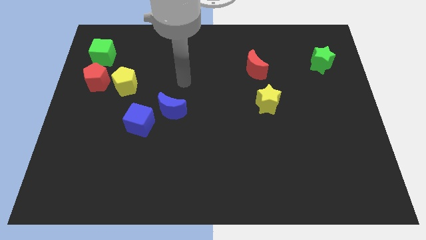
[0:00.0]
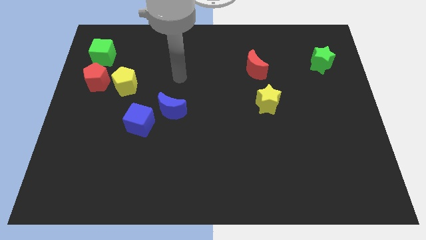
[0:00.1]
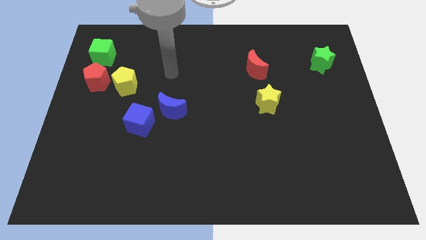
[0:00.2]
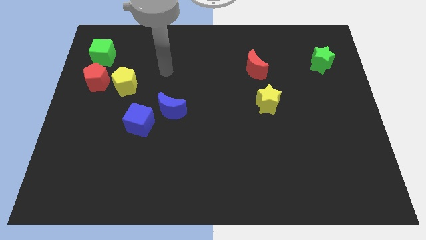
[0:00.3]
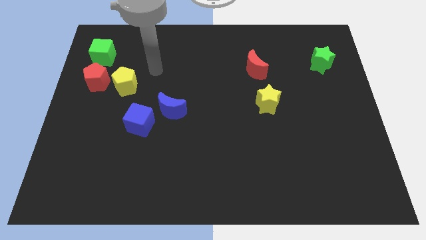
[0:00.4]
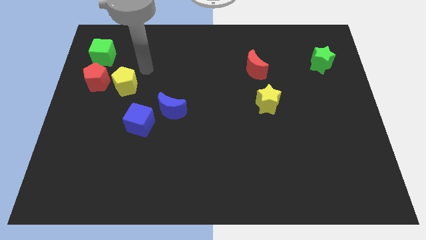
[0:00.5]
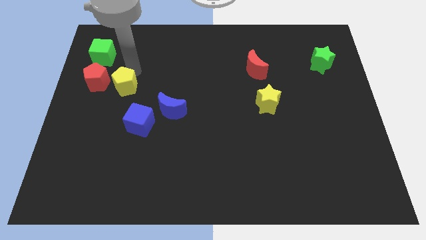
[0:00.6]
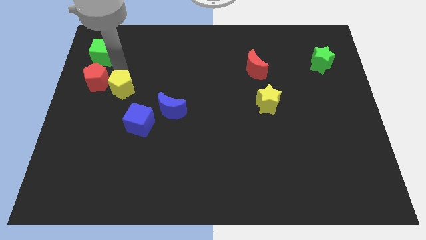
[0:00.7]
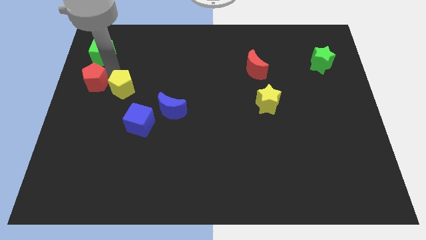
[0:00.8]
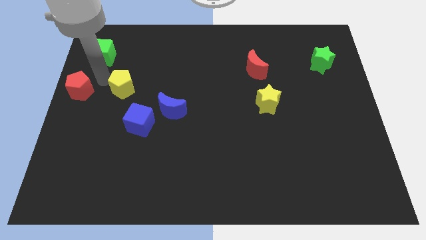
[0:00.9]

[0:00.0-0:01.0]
pull the yellow pentagon apart from the red pentagon

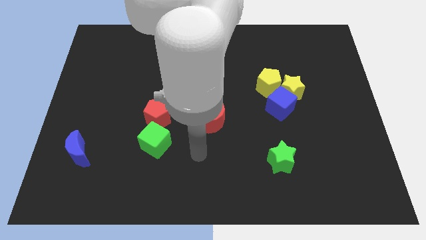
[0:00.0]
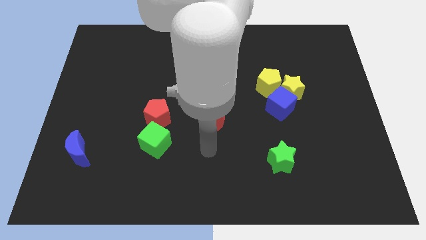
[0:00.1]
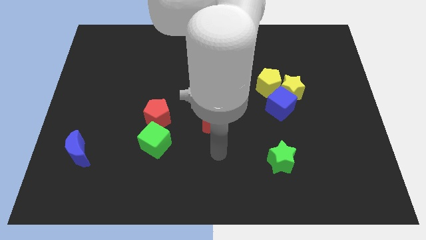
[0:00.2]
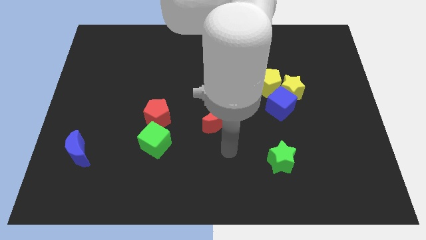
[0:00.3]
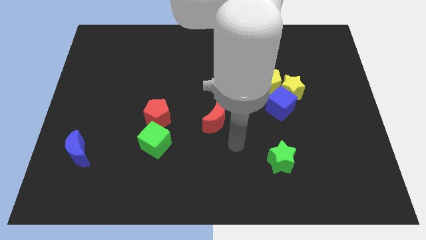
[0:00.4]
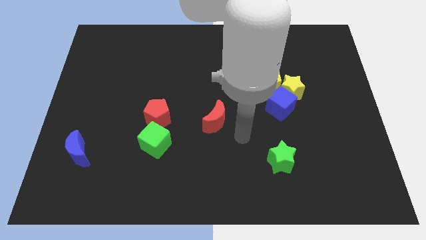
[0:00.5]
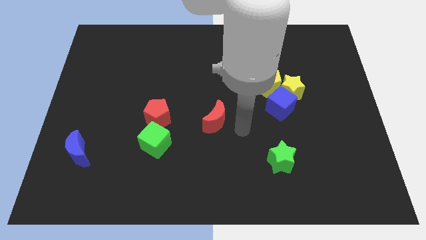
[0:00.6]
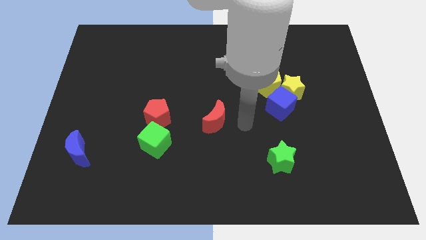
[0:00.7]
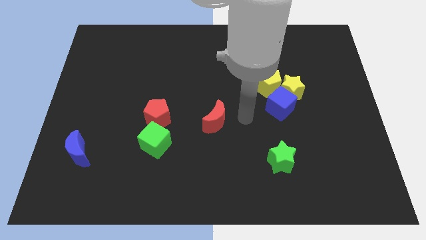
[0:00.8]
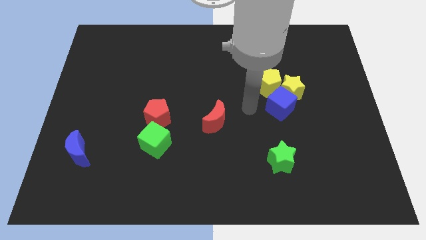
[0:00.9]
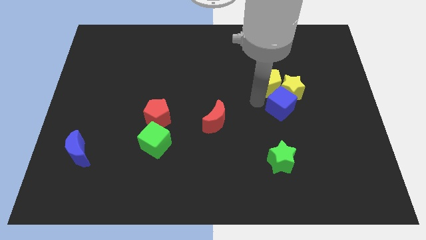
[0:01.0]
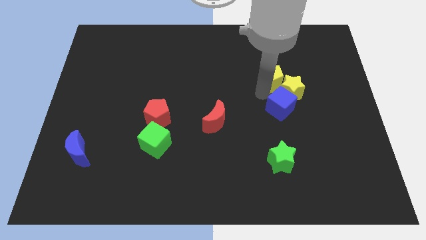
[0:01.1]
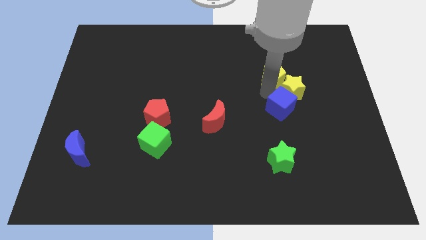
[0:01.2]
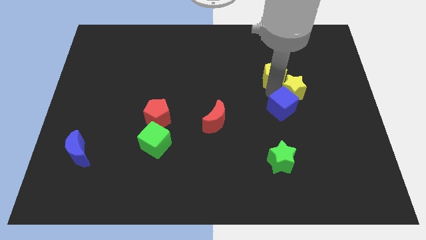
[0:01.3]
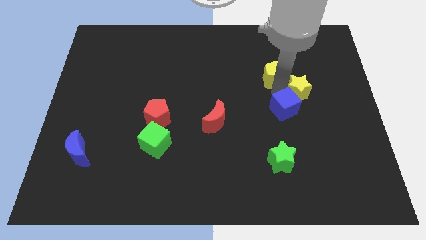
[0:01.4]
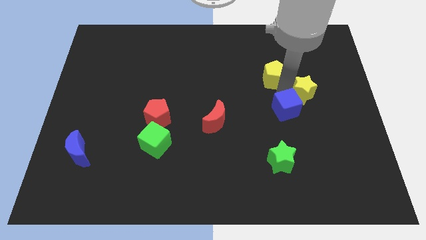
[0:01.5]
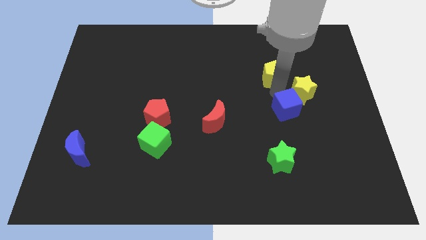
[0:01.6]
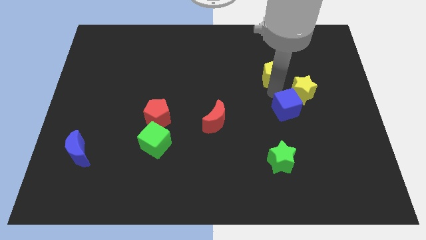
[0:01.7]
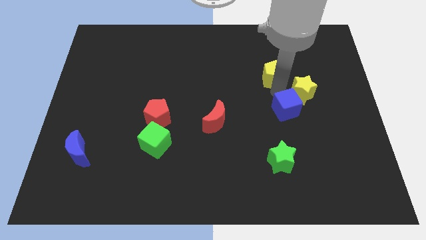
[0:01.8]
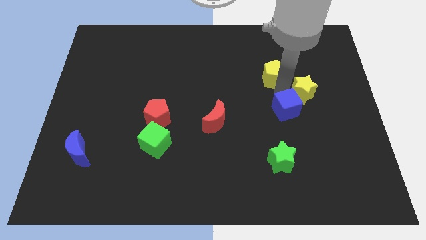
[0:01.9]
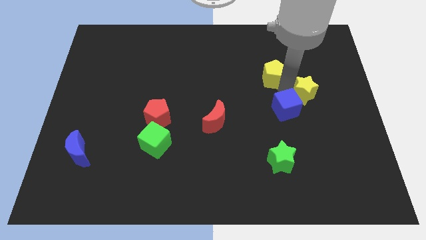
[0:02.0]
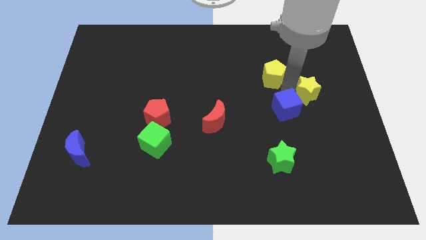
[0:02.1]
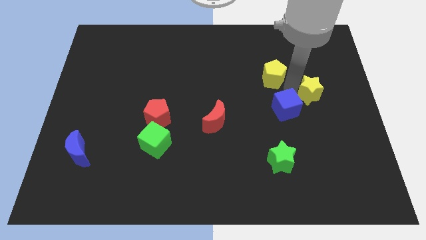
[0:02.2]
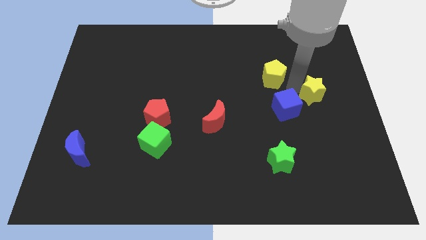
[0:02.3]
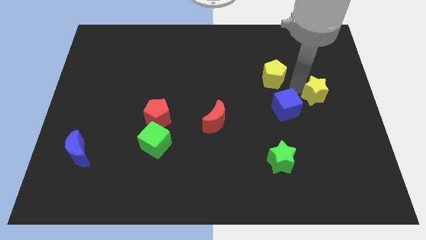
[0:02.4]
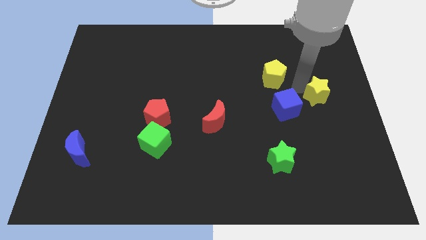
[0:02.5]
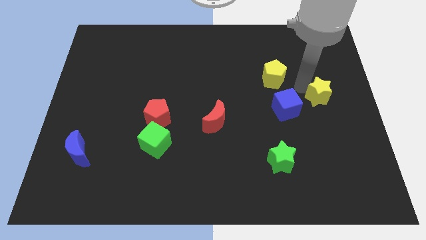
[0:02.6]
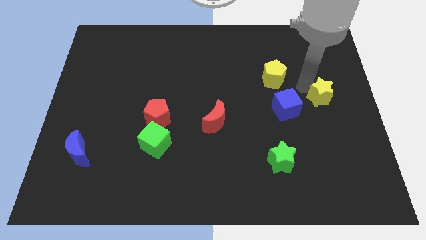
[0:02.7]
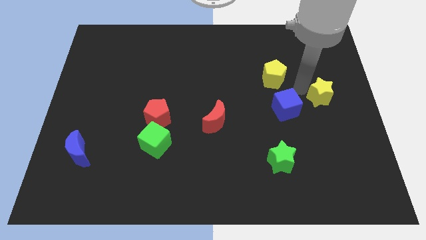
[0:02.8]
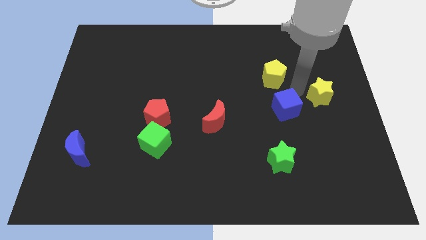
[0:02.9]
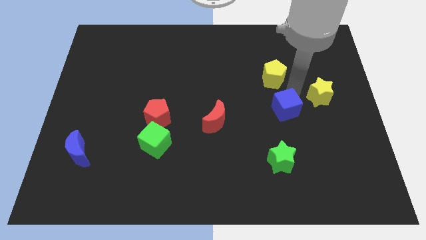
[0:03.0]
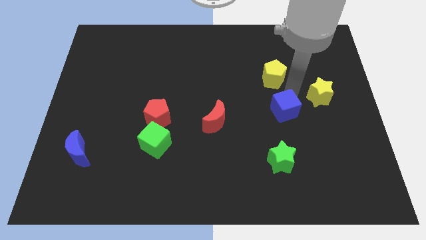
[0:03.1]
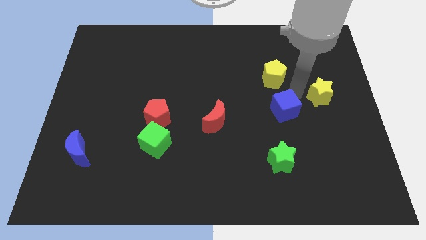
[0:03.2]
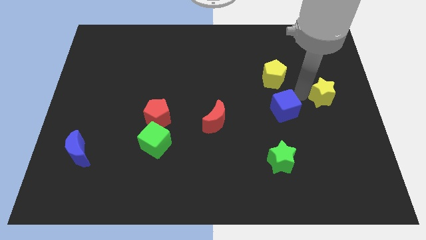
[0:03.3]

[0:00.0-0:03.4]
move the yellow star away from the blue cube and yellow pentagon

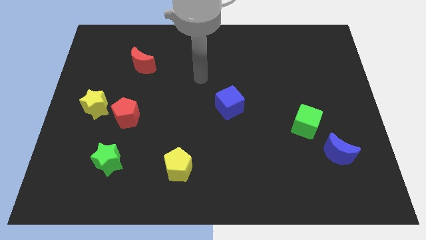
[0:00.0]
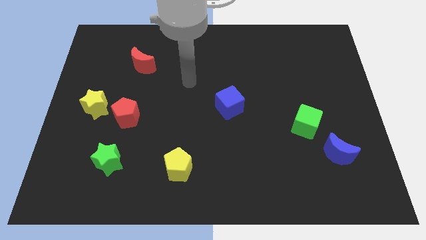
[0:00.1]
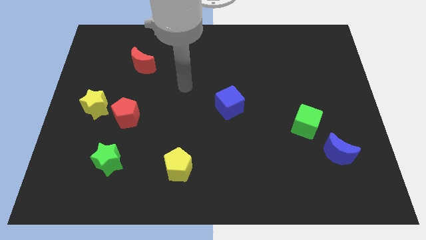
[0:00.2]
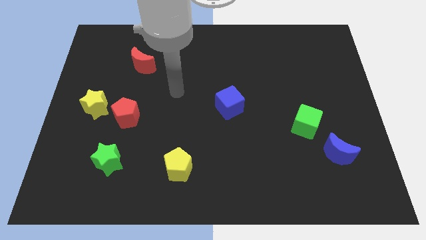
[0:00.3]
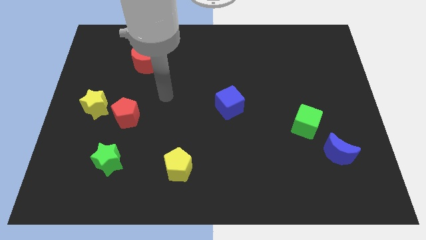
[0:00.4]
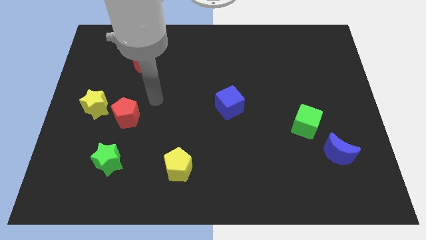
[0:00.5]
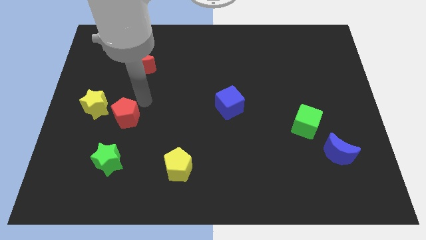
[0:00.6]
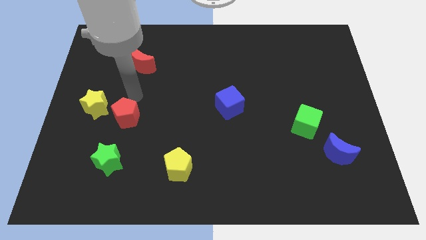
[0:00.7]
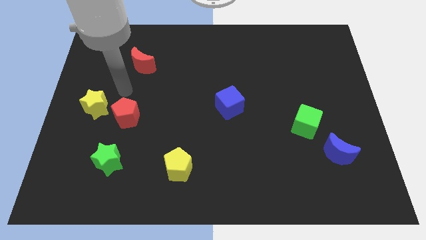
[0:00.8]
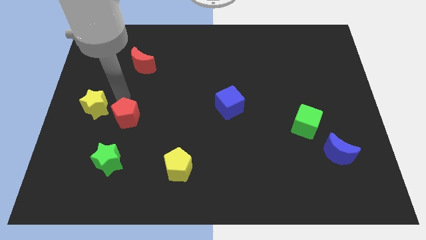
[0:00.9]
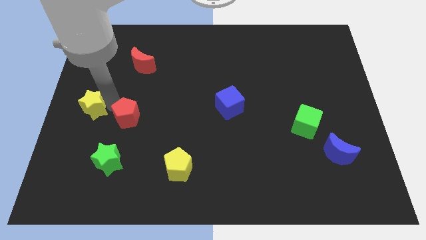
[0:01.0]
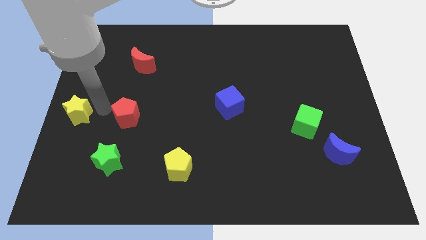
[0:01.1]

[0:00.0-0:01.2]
move the red pentagon away from the yellow star

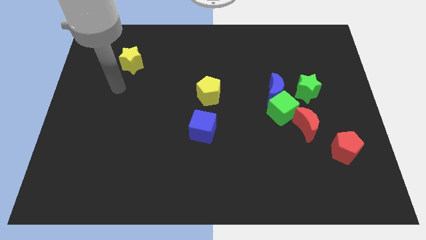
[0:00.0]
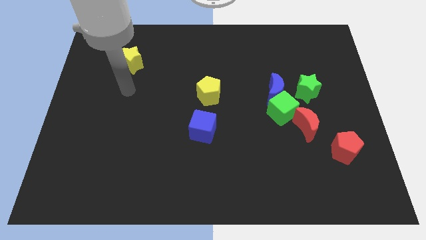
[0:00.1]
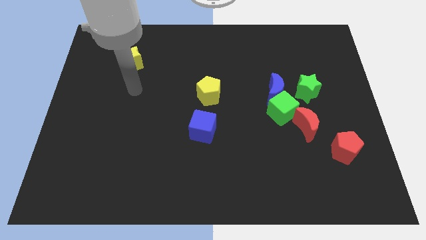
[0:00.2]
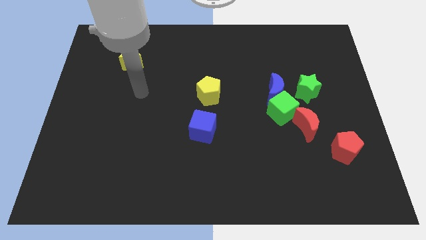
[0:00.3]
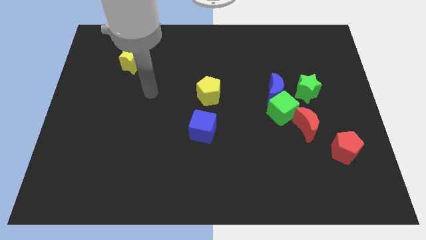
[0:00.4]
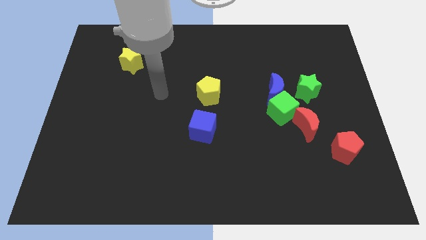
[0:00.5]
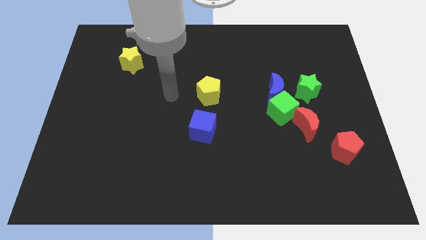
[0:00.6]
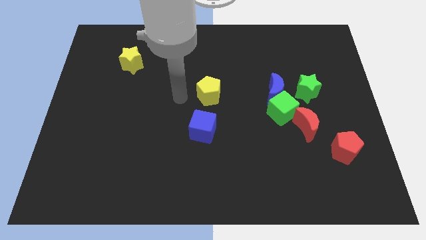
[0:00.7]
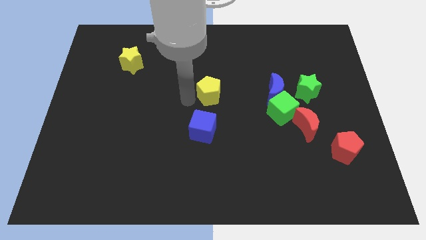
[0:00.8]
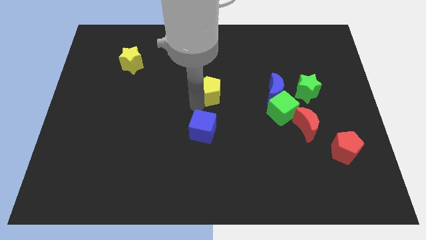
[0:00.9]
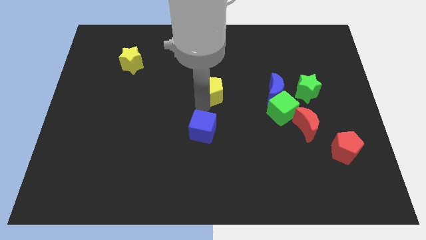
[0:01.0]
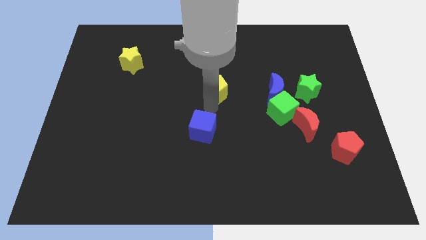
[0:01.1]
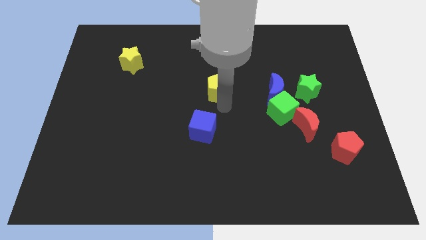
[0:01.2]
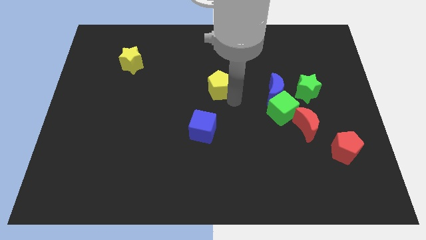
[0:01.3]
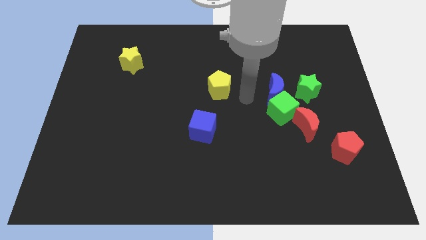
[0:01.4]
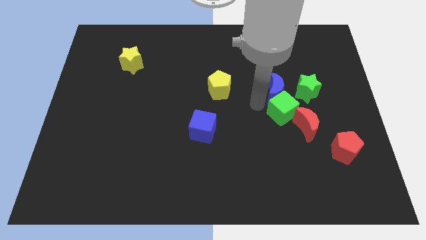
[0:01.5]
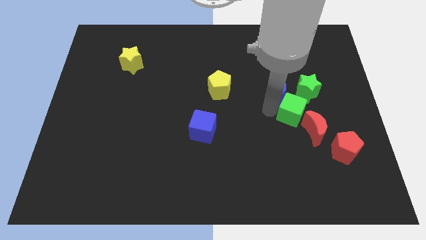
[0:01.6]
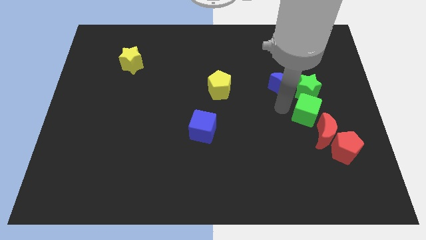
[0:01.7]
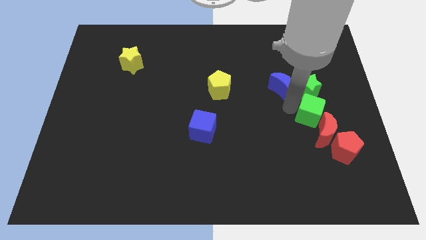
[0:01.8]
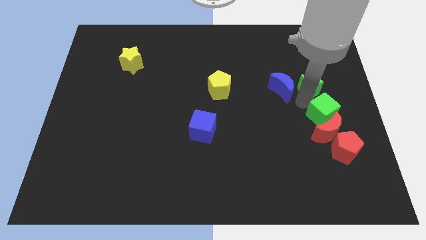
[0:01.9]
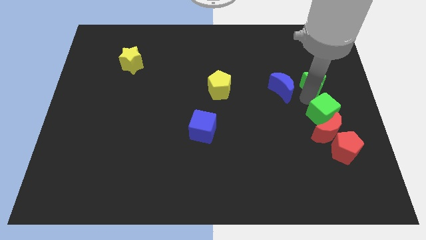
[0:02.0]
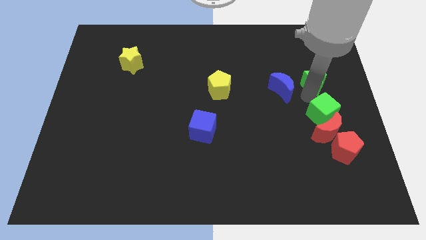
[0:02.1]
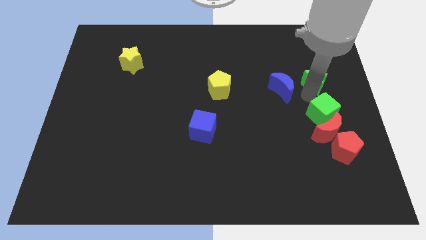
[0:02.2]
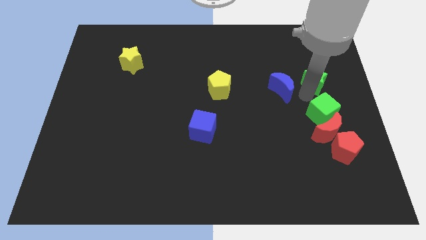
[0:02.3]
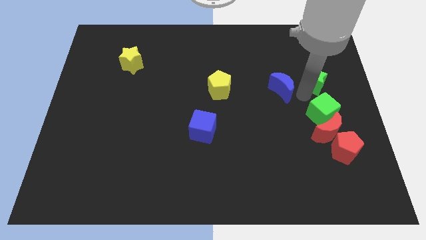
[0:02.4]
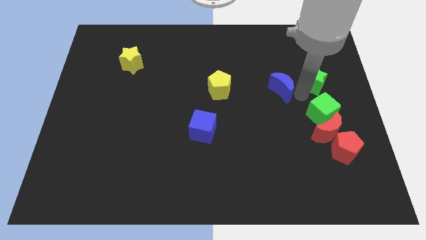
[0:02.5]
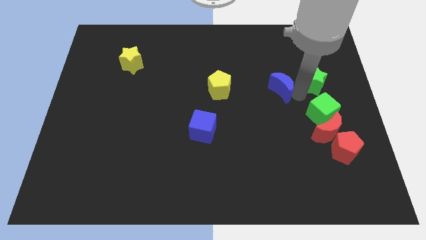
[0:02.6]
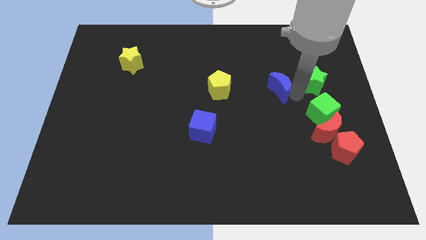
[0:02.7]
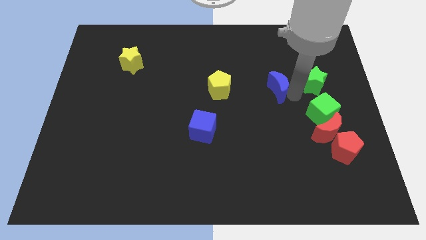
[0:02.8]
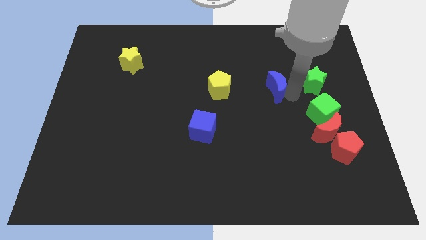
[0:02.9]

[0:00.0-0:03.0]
separate the blue moon from the green cube and green star

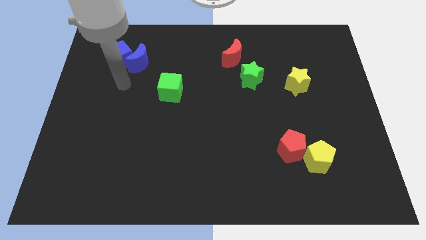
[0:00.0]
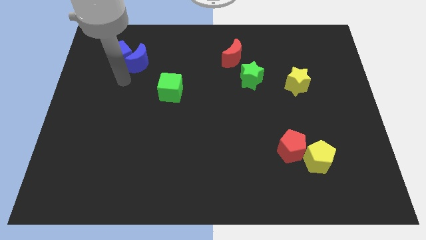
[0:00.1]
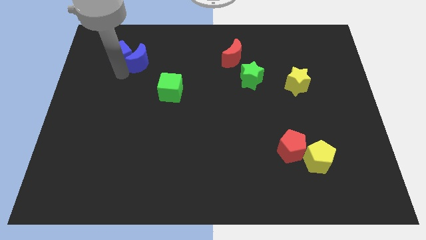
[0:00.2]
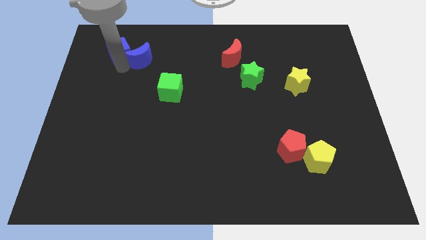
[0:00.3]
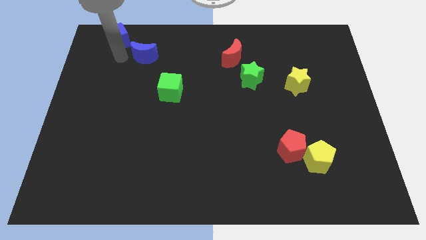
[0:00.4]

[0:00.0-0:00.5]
pull the blue moon apart from the blue cube

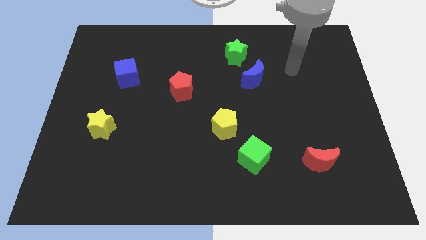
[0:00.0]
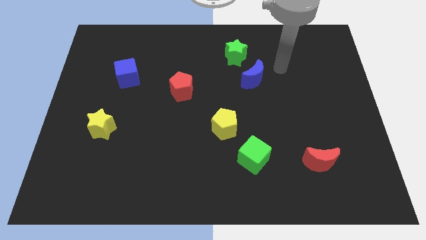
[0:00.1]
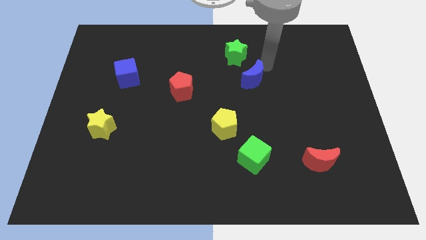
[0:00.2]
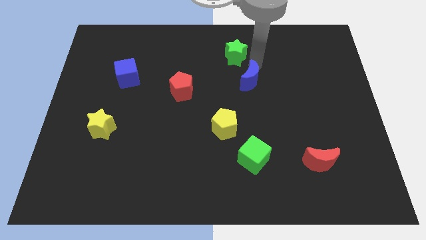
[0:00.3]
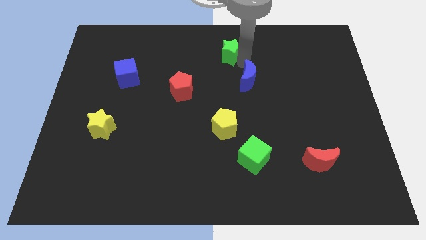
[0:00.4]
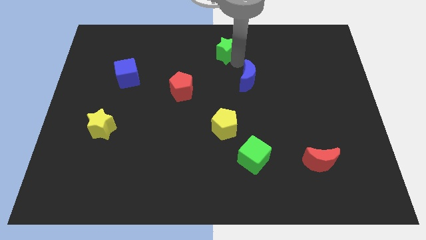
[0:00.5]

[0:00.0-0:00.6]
separate the blue moon from the green star
